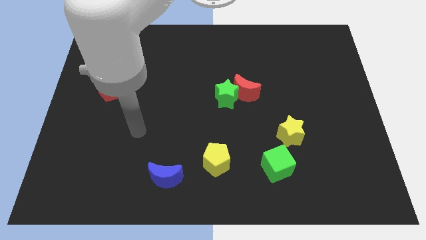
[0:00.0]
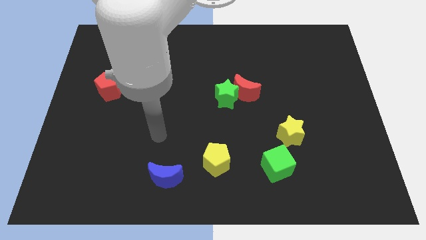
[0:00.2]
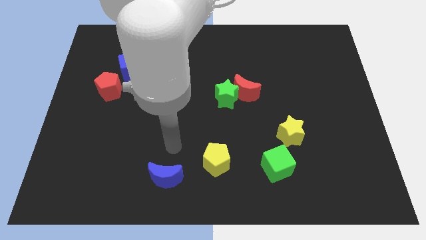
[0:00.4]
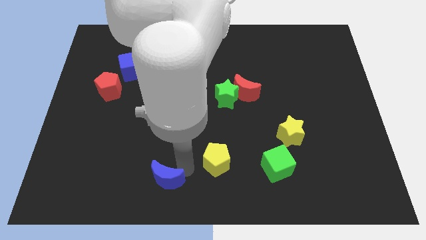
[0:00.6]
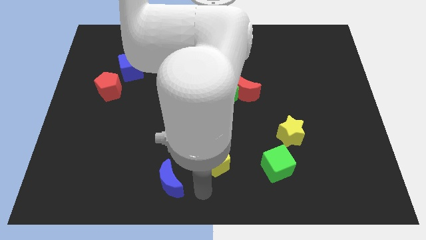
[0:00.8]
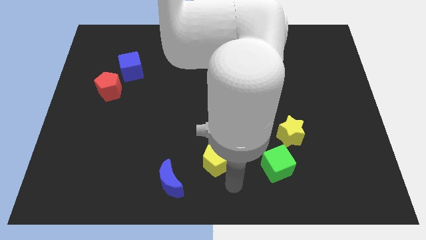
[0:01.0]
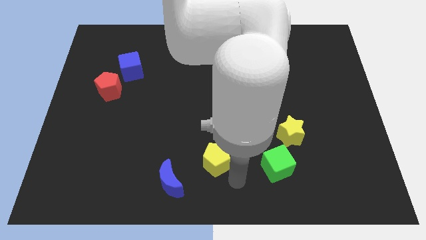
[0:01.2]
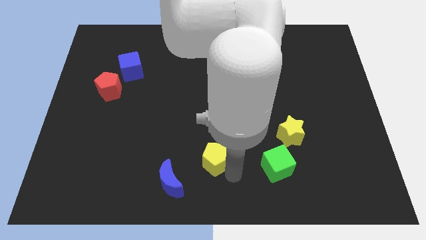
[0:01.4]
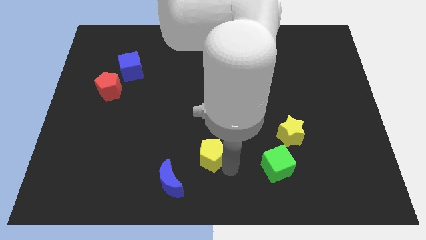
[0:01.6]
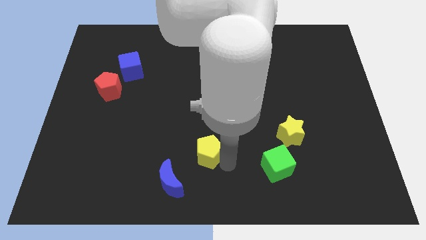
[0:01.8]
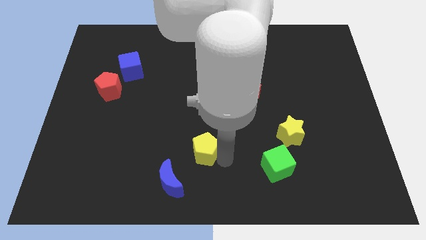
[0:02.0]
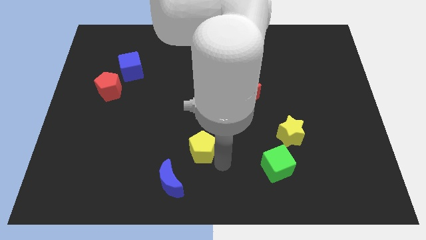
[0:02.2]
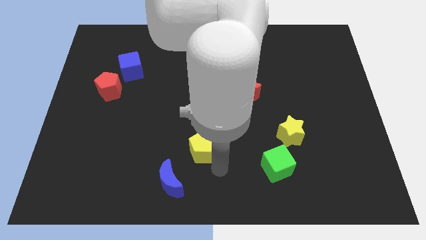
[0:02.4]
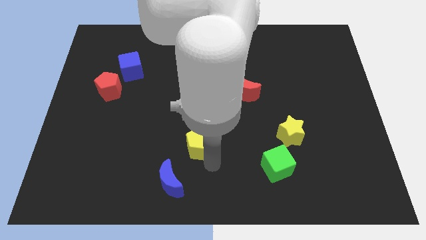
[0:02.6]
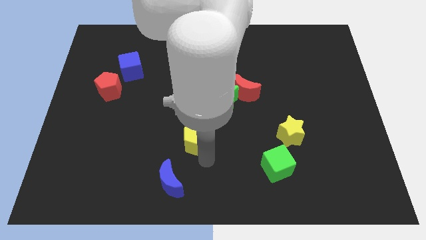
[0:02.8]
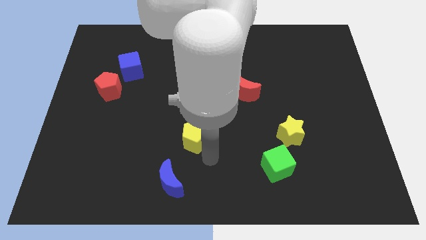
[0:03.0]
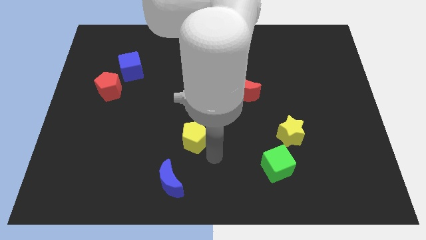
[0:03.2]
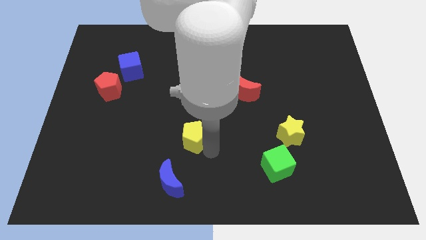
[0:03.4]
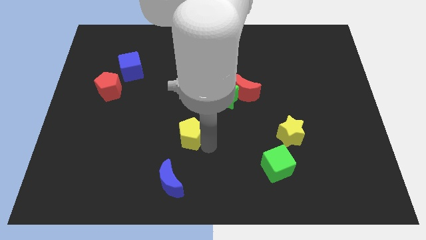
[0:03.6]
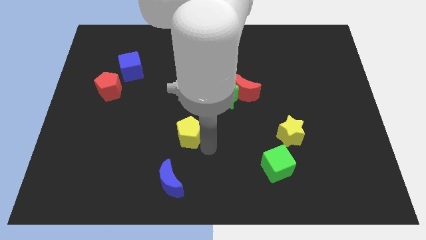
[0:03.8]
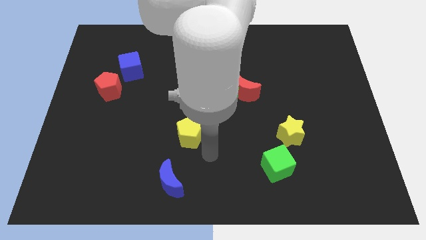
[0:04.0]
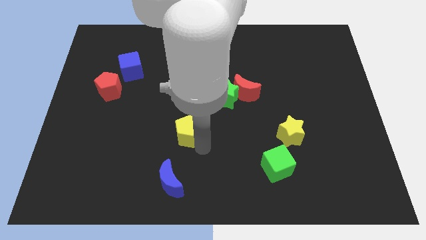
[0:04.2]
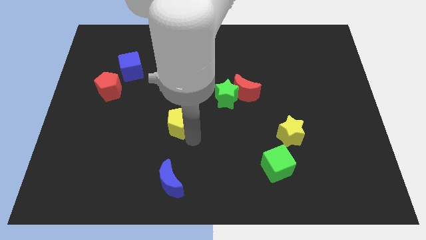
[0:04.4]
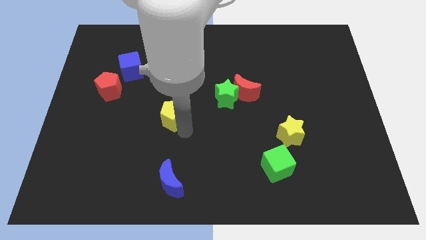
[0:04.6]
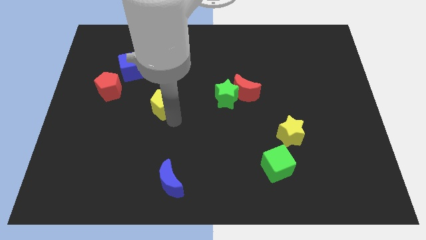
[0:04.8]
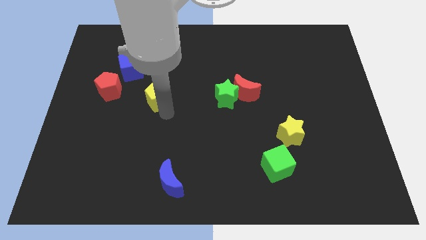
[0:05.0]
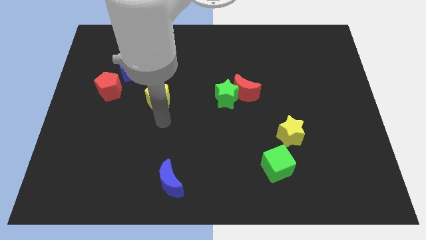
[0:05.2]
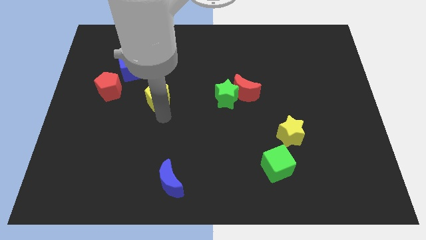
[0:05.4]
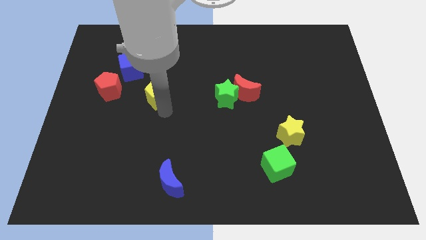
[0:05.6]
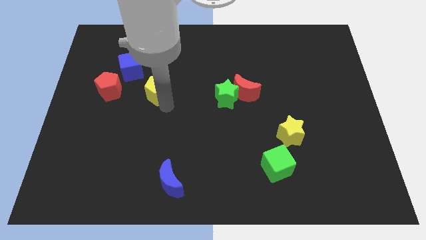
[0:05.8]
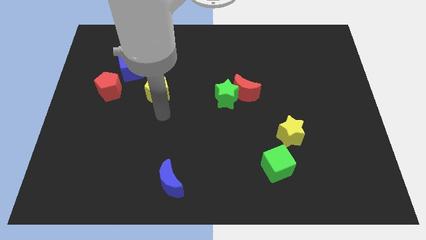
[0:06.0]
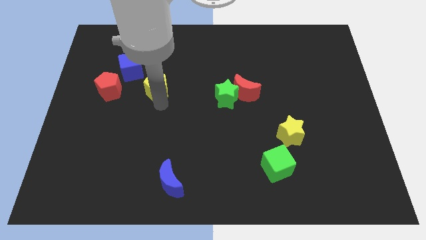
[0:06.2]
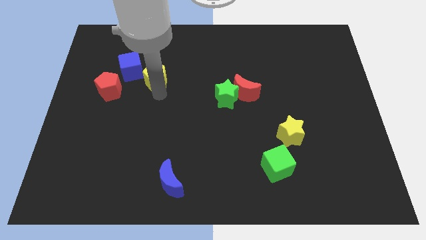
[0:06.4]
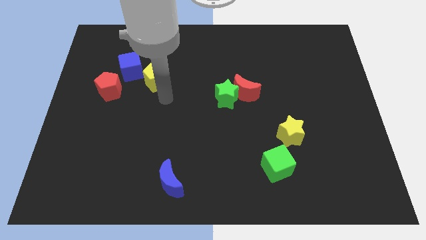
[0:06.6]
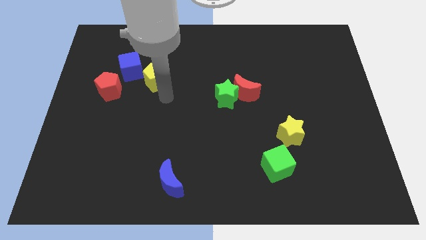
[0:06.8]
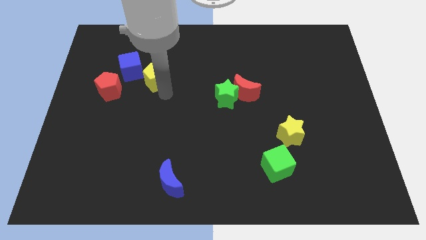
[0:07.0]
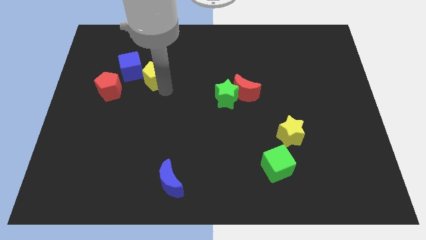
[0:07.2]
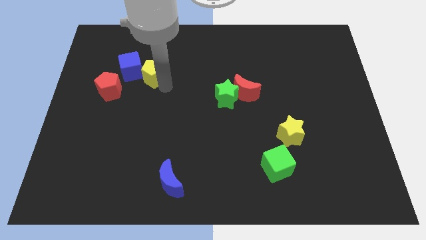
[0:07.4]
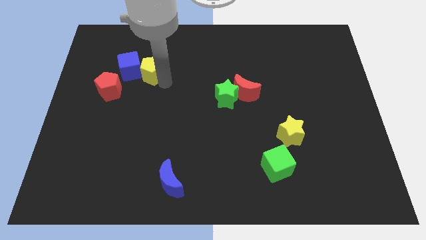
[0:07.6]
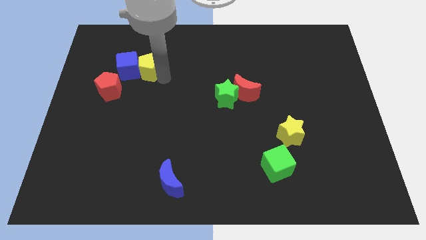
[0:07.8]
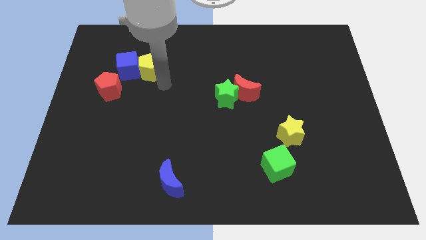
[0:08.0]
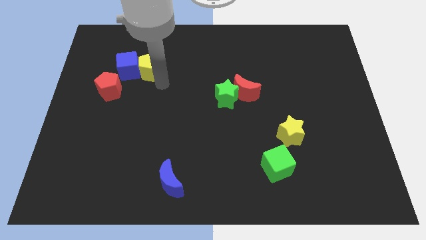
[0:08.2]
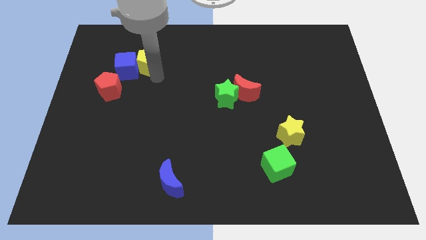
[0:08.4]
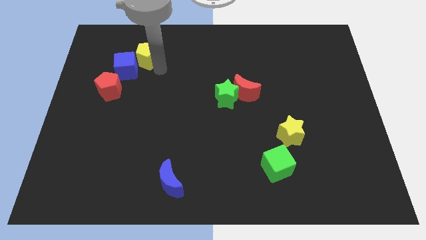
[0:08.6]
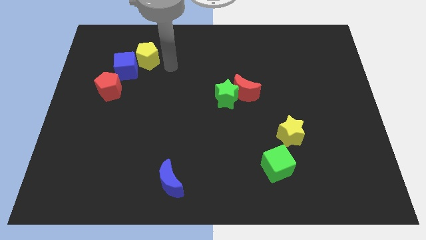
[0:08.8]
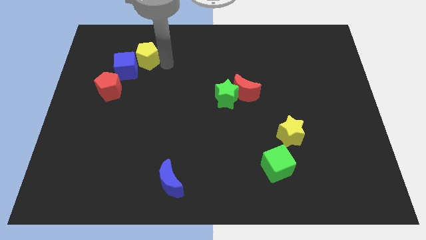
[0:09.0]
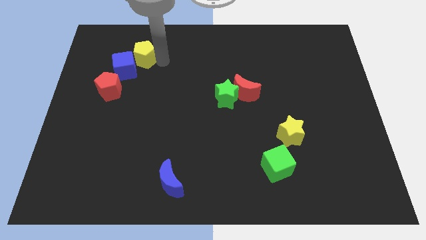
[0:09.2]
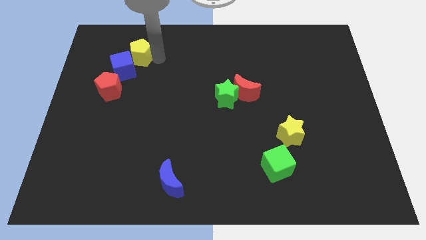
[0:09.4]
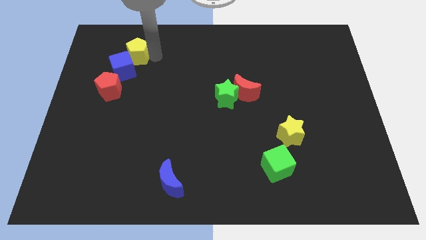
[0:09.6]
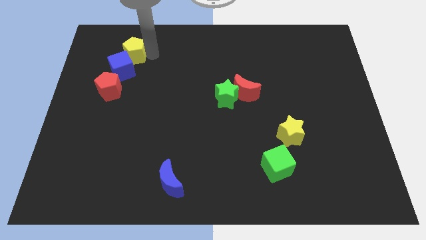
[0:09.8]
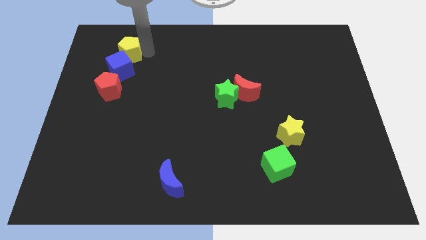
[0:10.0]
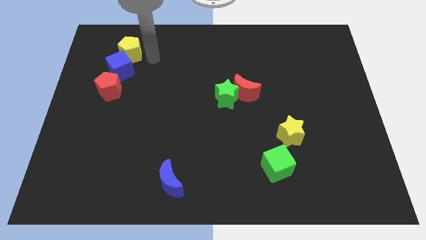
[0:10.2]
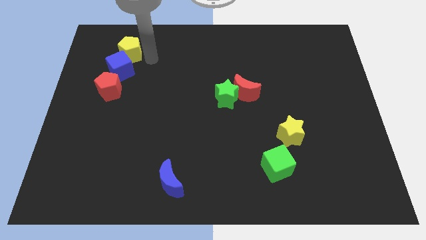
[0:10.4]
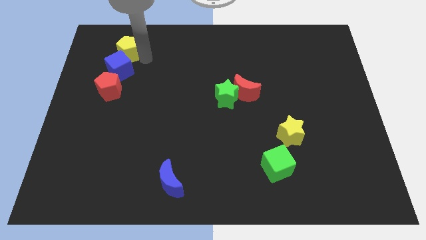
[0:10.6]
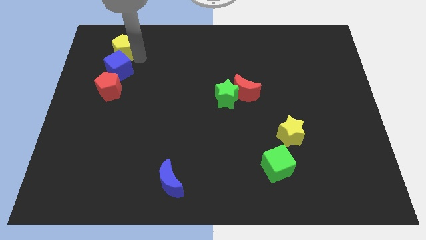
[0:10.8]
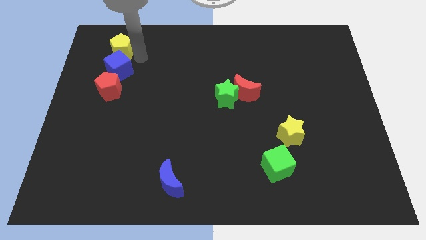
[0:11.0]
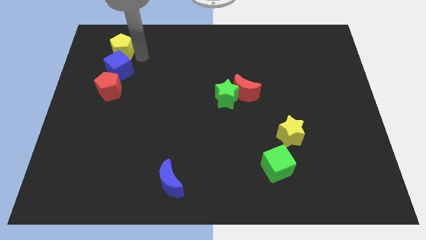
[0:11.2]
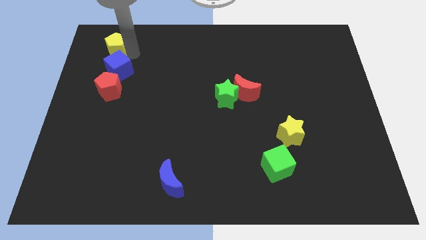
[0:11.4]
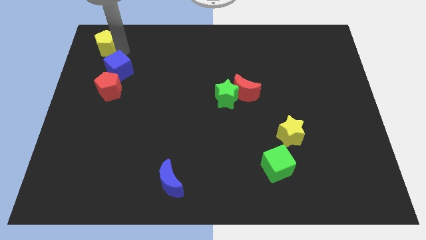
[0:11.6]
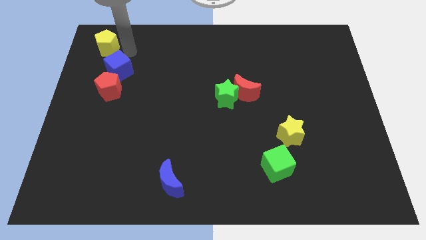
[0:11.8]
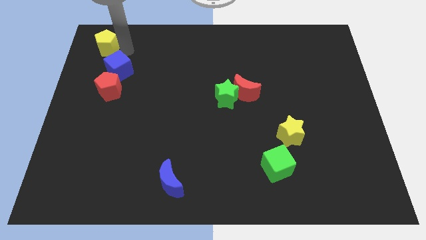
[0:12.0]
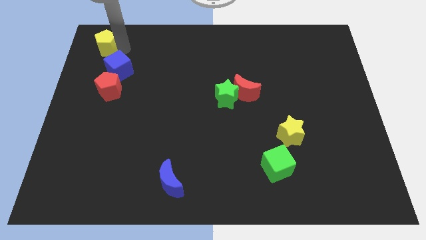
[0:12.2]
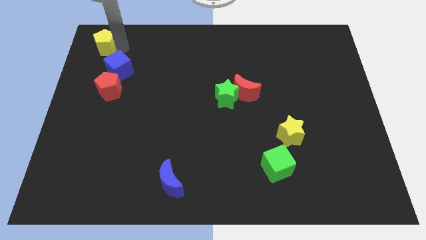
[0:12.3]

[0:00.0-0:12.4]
push the yellow pentagon to the top left

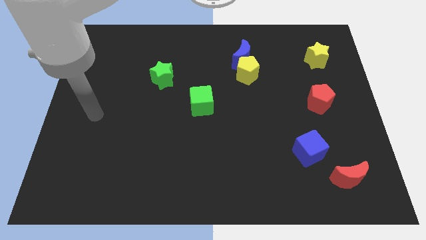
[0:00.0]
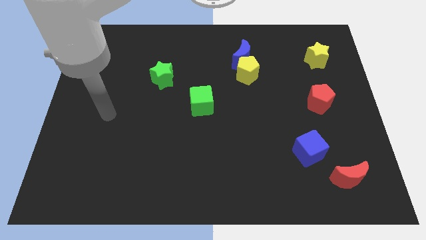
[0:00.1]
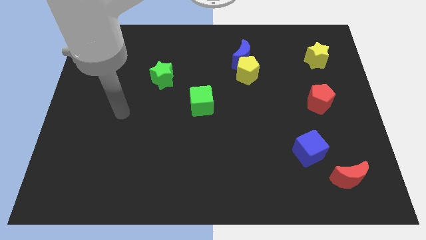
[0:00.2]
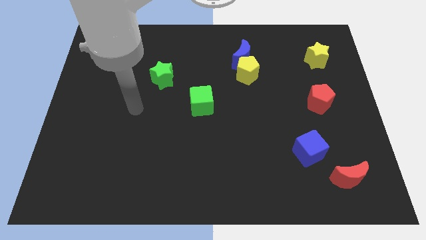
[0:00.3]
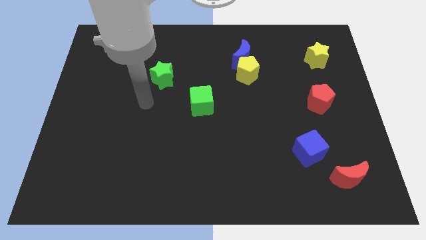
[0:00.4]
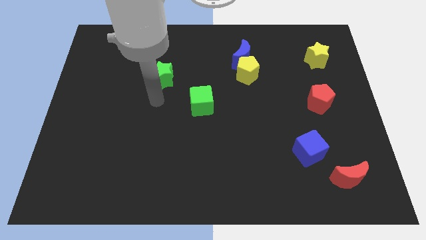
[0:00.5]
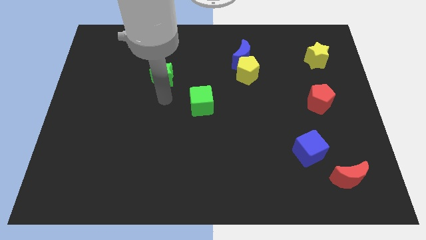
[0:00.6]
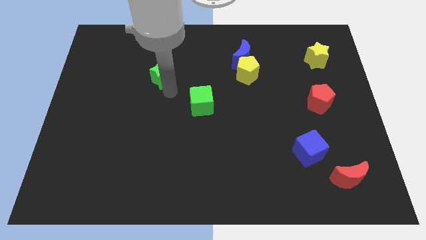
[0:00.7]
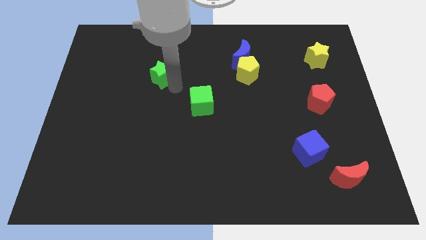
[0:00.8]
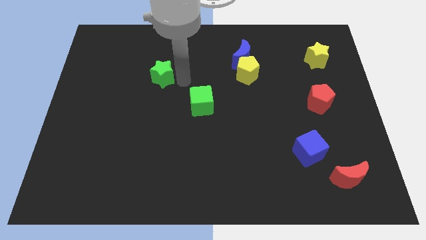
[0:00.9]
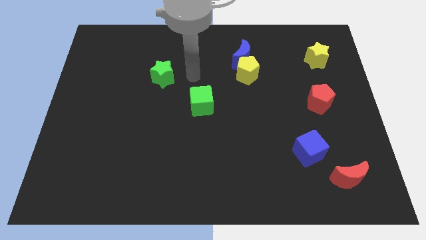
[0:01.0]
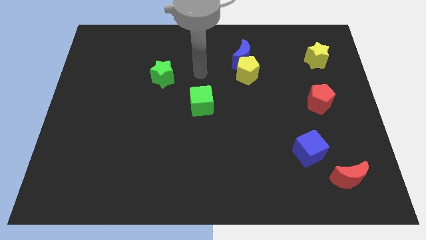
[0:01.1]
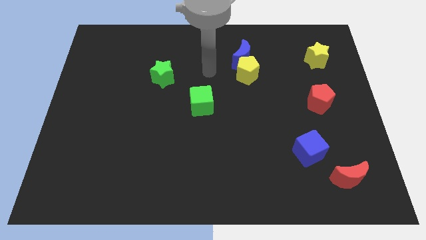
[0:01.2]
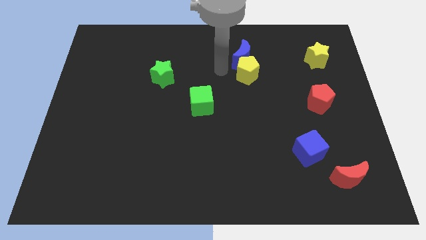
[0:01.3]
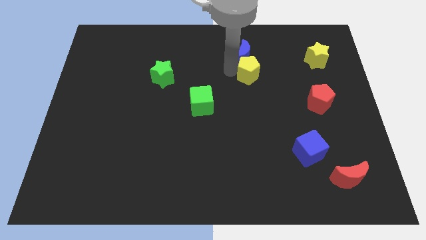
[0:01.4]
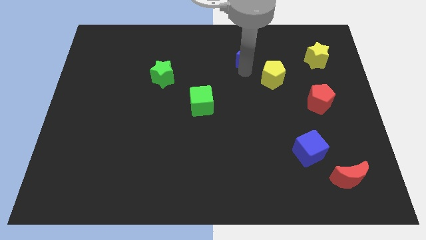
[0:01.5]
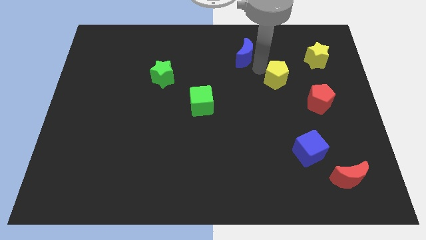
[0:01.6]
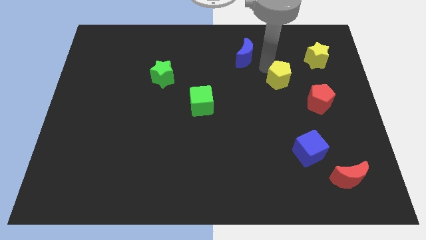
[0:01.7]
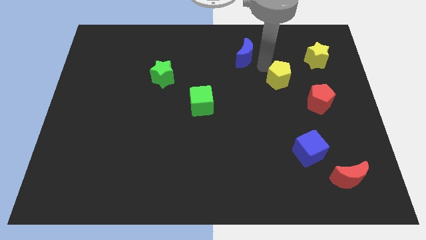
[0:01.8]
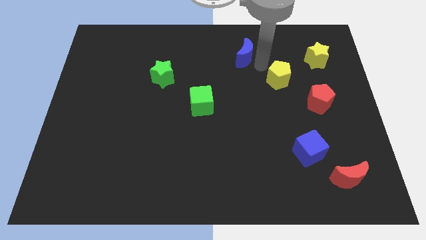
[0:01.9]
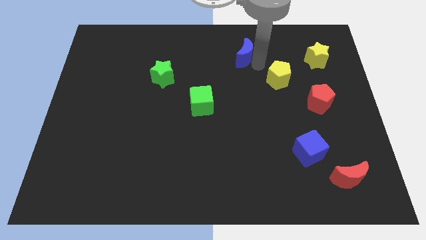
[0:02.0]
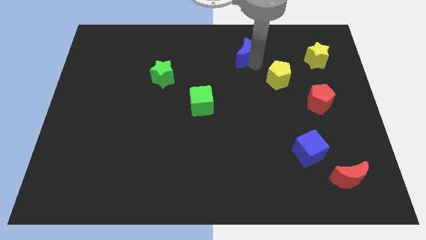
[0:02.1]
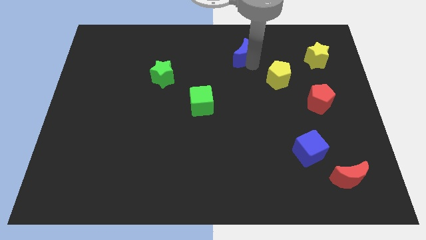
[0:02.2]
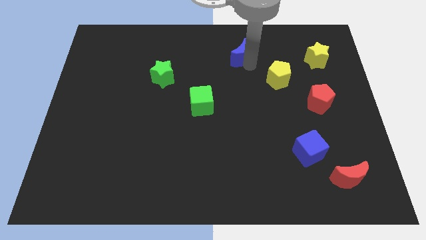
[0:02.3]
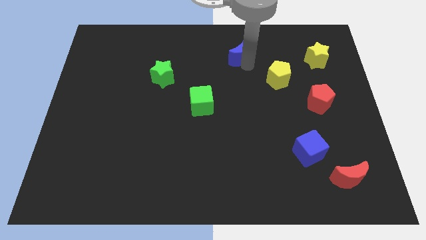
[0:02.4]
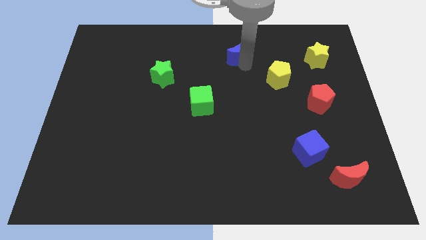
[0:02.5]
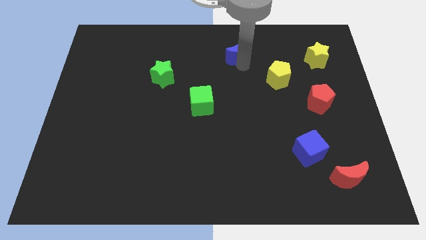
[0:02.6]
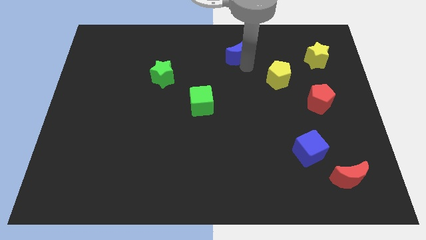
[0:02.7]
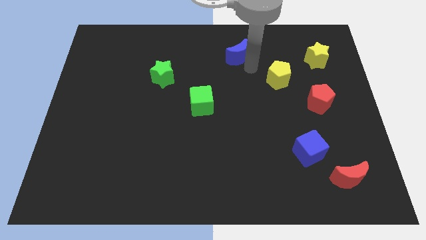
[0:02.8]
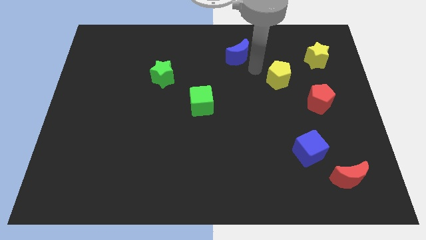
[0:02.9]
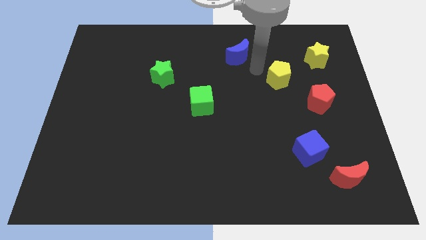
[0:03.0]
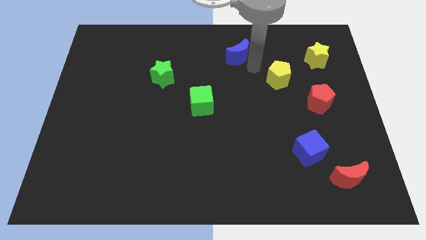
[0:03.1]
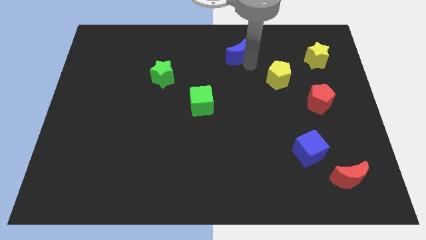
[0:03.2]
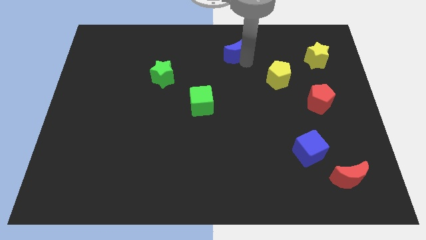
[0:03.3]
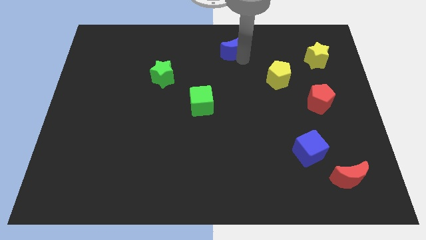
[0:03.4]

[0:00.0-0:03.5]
slide the blue moon to the top
